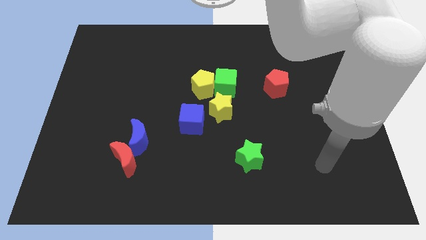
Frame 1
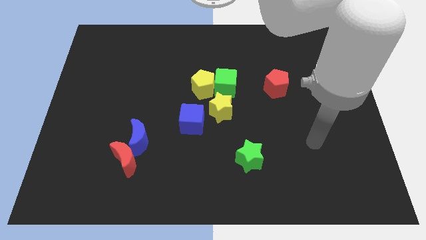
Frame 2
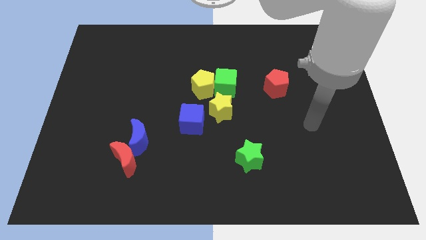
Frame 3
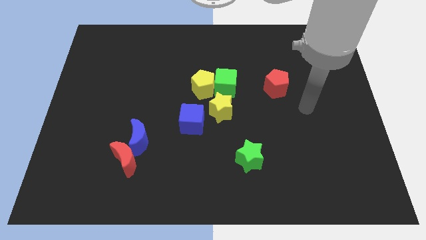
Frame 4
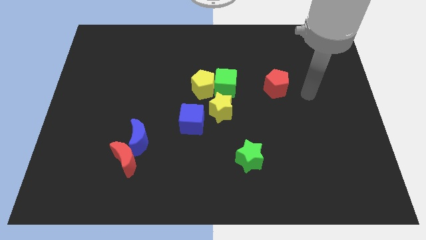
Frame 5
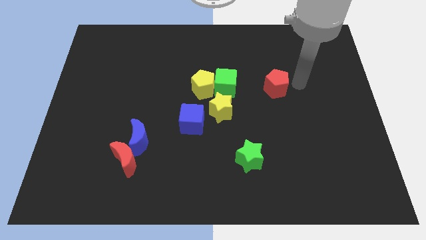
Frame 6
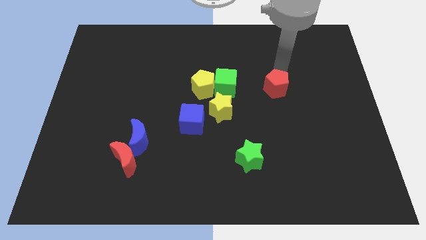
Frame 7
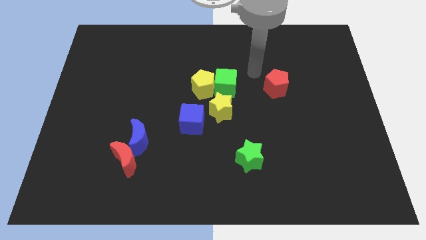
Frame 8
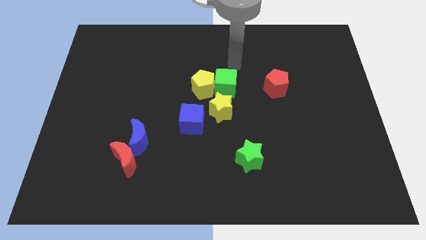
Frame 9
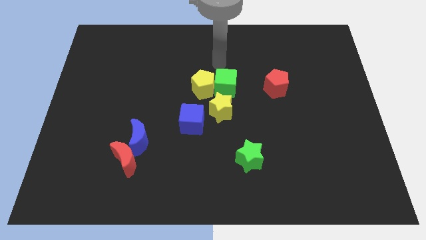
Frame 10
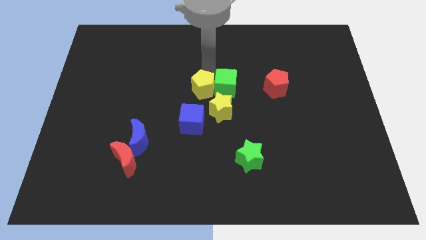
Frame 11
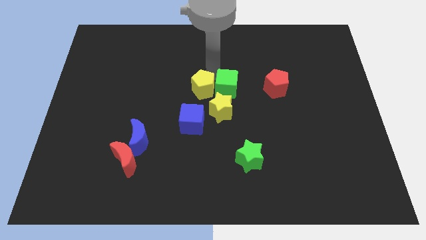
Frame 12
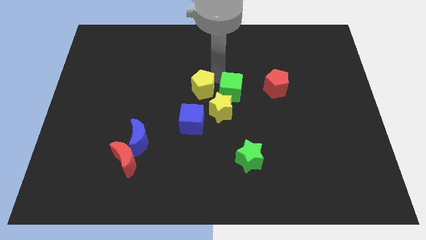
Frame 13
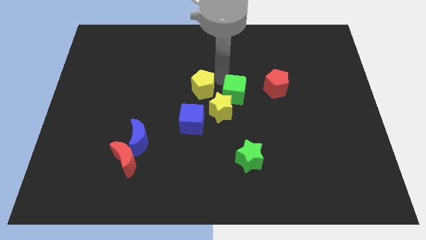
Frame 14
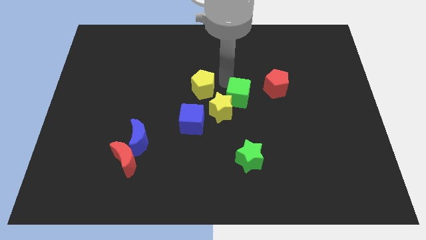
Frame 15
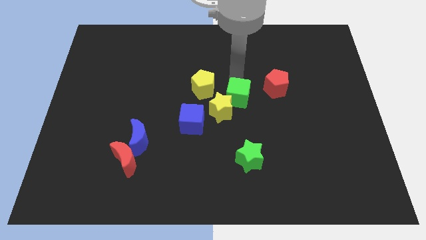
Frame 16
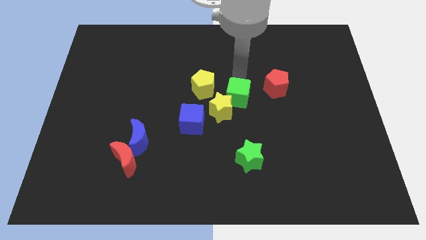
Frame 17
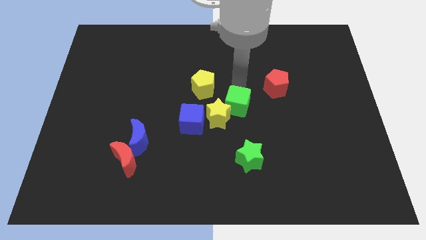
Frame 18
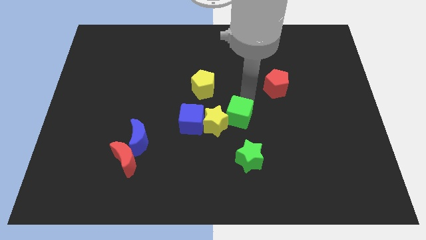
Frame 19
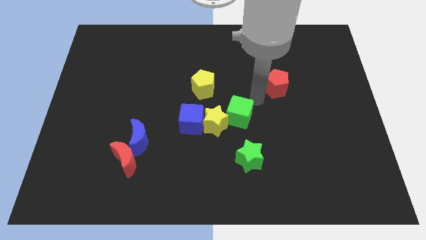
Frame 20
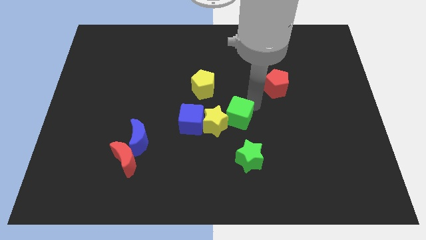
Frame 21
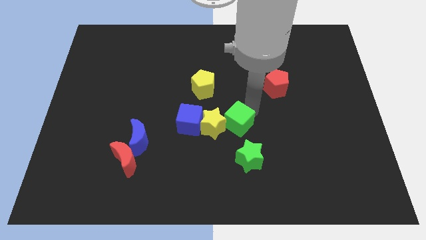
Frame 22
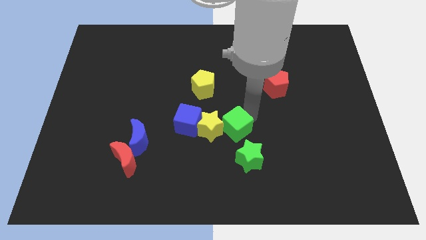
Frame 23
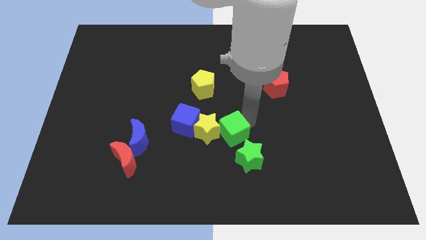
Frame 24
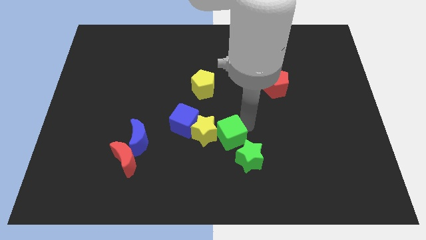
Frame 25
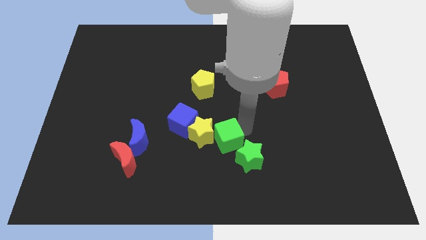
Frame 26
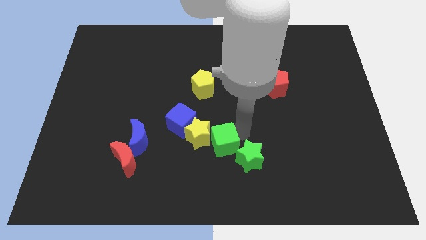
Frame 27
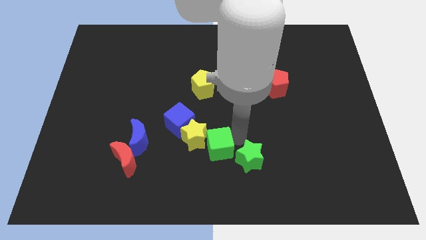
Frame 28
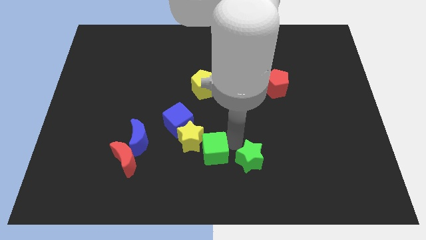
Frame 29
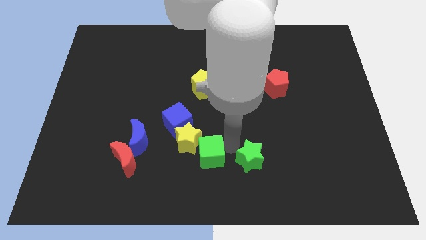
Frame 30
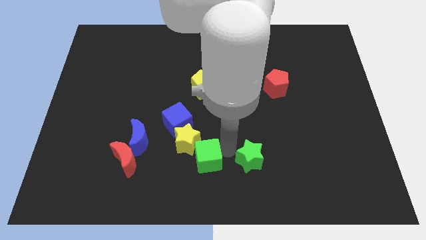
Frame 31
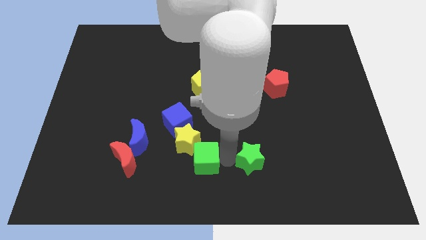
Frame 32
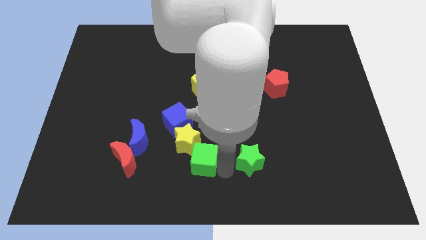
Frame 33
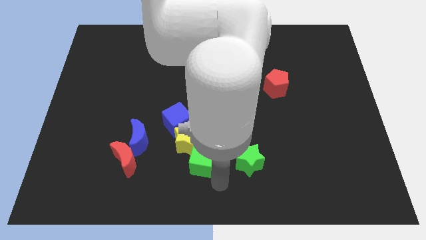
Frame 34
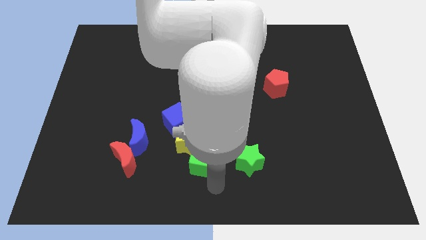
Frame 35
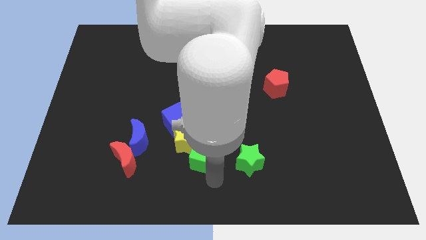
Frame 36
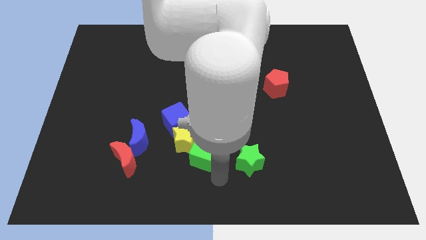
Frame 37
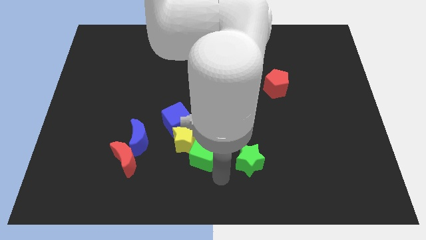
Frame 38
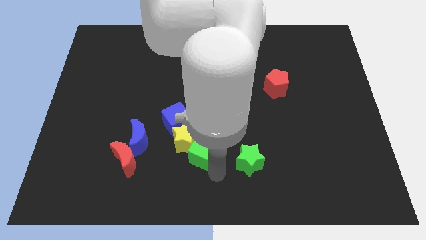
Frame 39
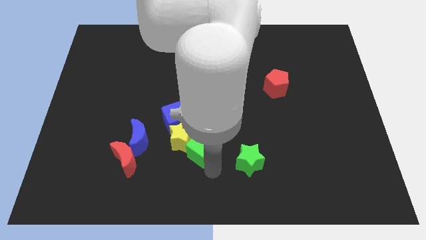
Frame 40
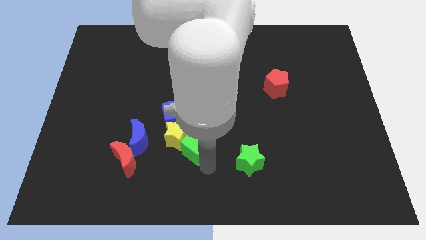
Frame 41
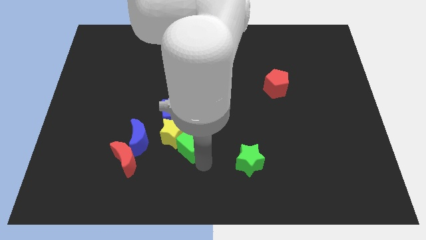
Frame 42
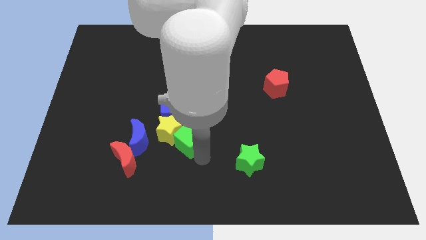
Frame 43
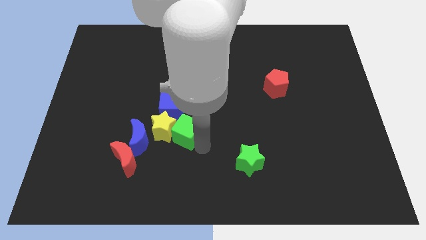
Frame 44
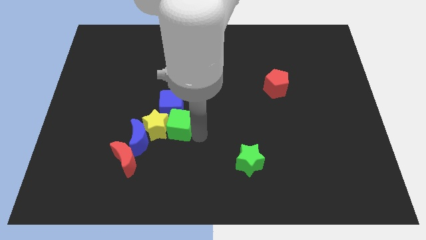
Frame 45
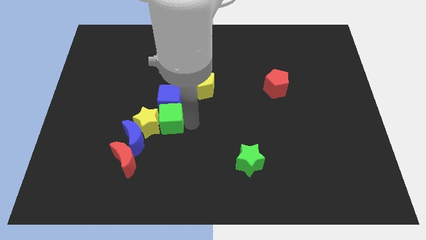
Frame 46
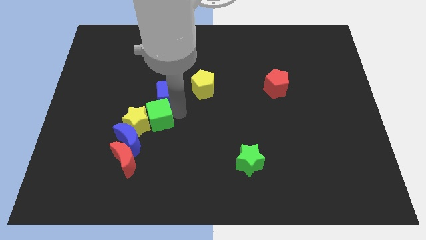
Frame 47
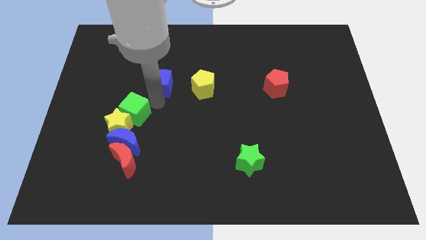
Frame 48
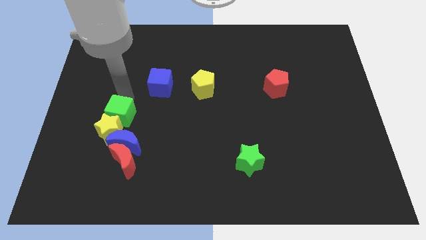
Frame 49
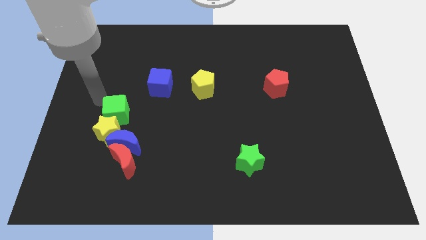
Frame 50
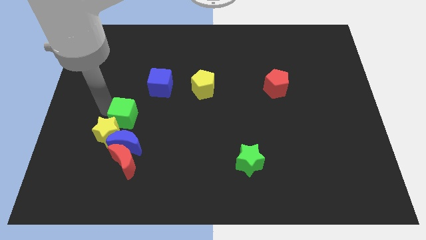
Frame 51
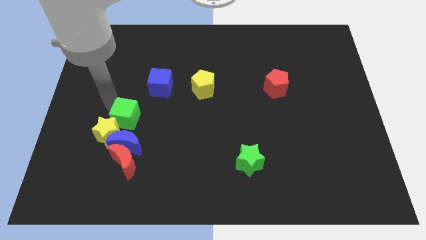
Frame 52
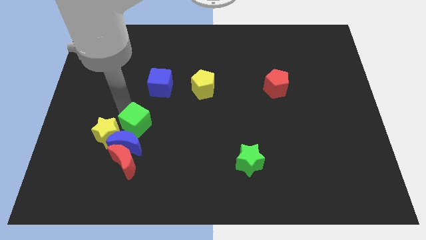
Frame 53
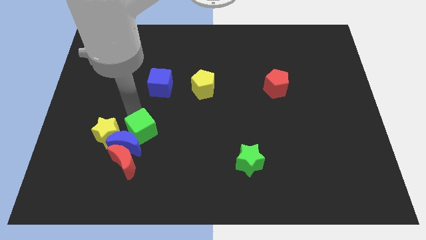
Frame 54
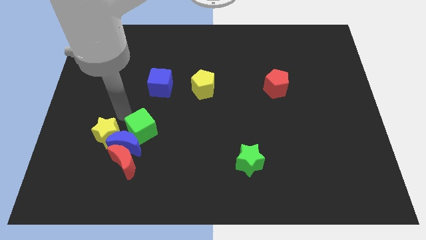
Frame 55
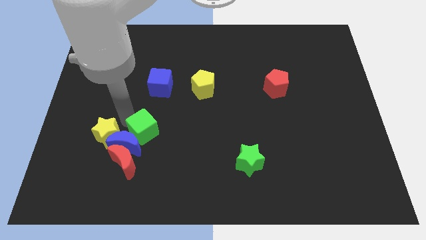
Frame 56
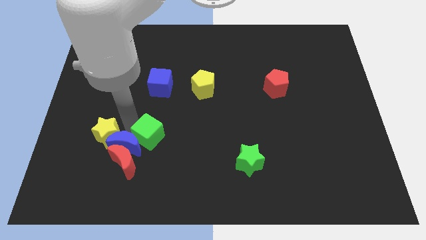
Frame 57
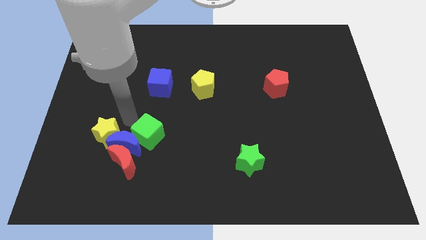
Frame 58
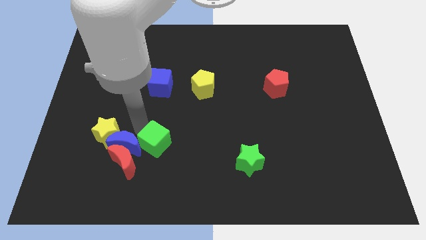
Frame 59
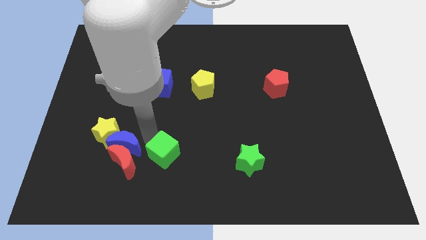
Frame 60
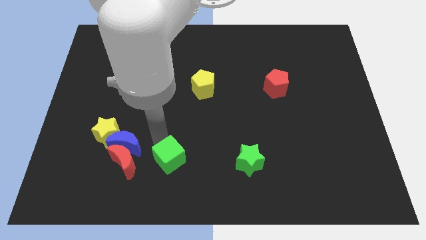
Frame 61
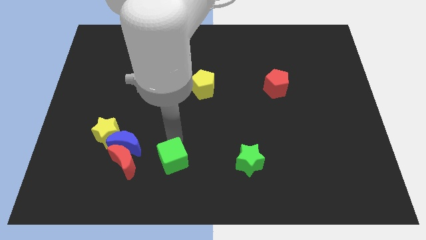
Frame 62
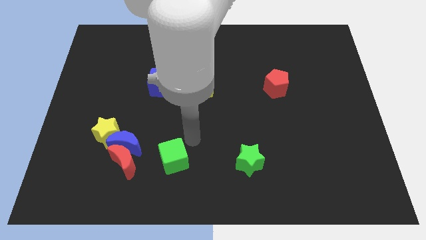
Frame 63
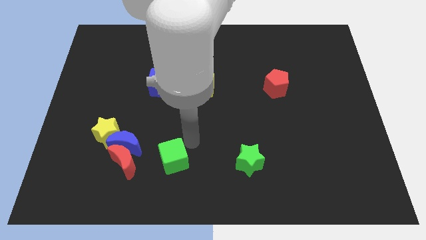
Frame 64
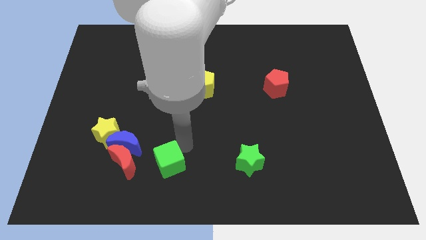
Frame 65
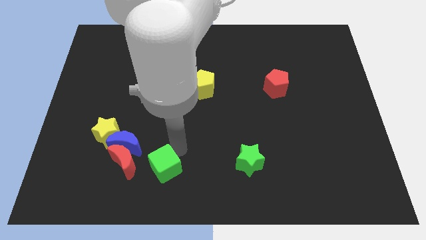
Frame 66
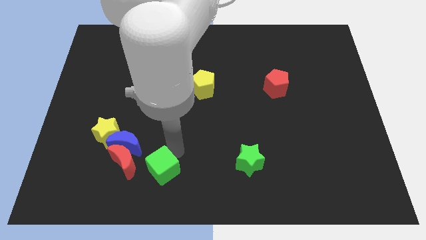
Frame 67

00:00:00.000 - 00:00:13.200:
push the green cube diagonally down and to the right of the red moon

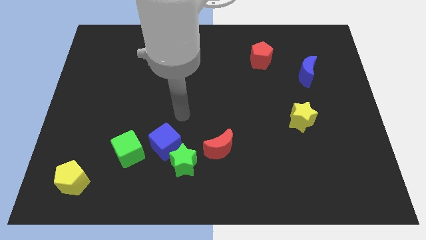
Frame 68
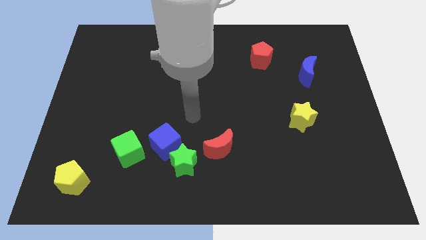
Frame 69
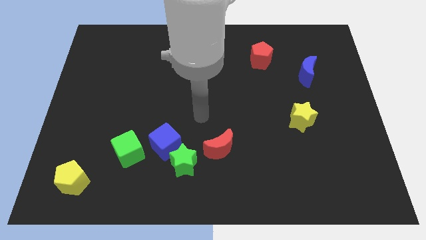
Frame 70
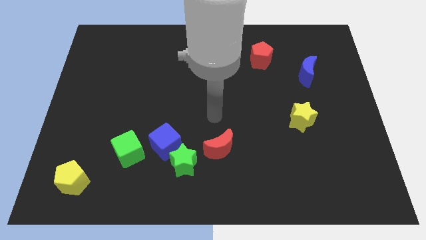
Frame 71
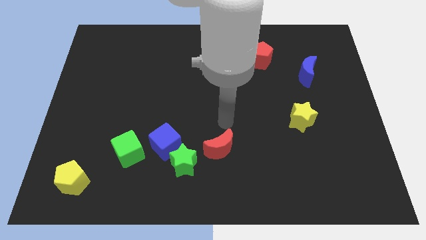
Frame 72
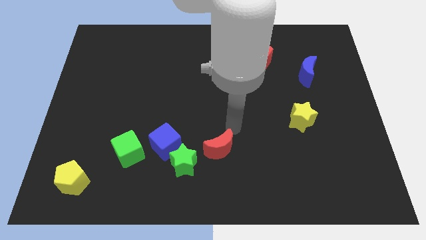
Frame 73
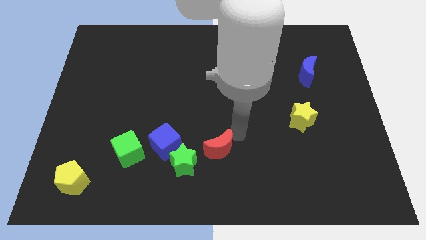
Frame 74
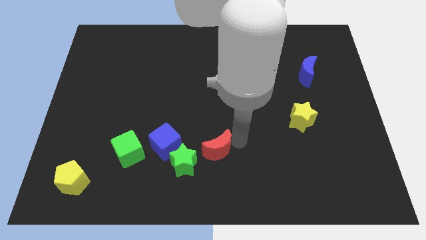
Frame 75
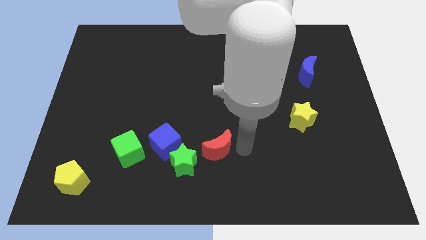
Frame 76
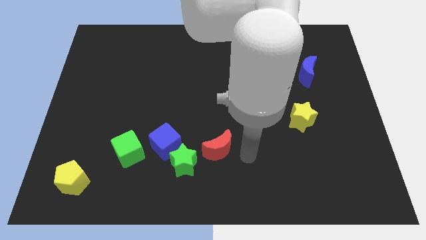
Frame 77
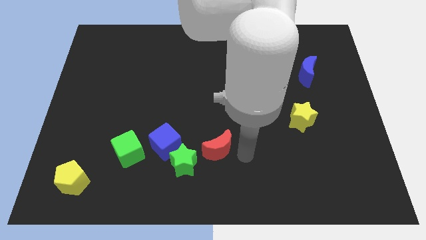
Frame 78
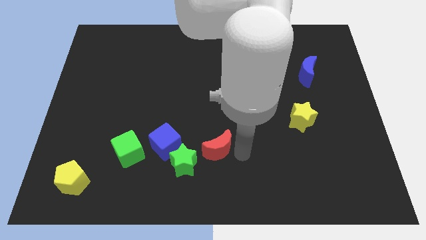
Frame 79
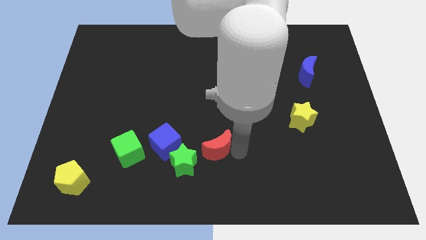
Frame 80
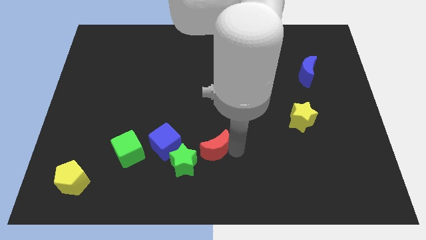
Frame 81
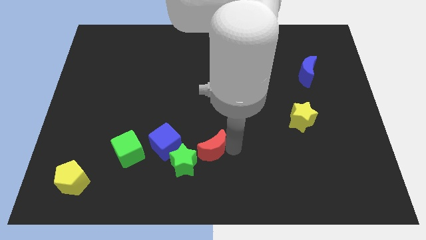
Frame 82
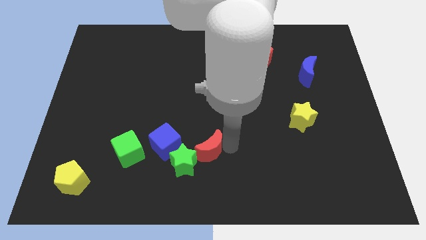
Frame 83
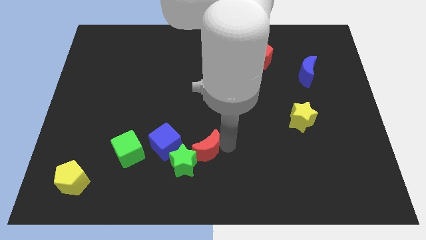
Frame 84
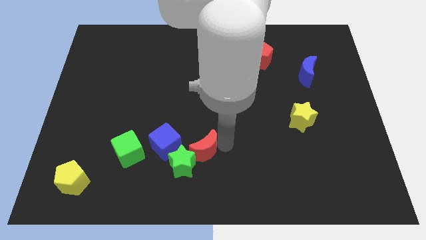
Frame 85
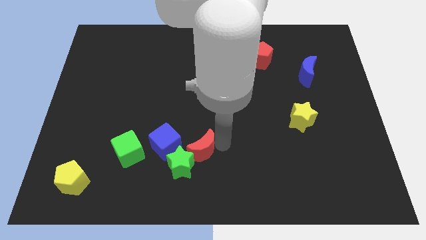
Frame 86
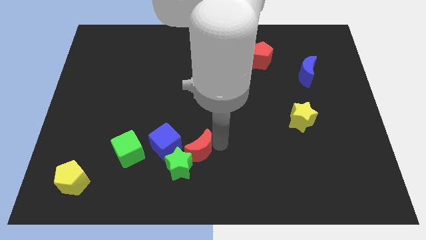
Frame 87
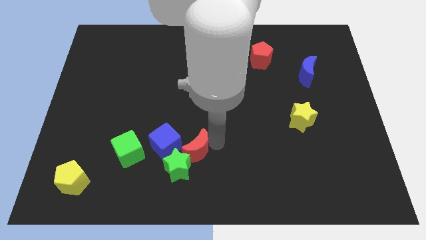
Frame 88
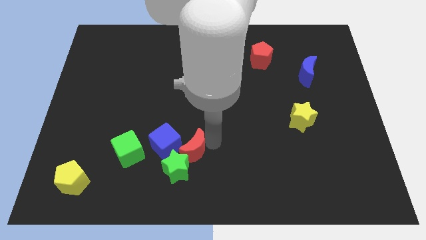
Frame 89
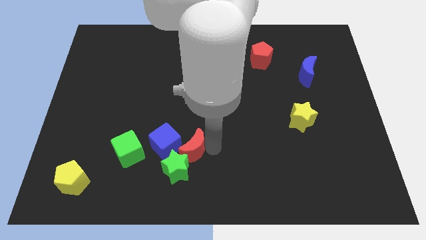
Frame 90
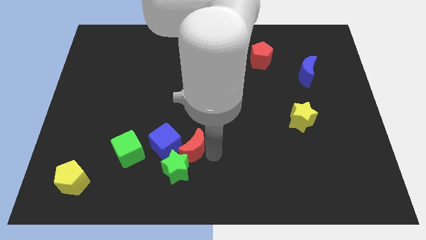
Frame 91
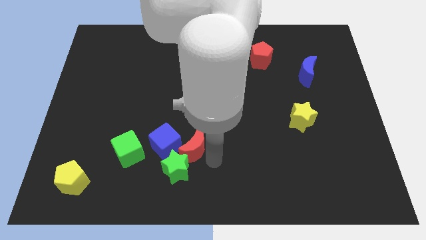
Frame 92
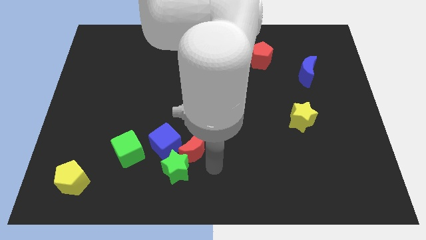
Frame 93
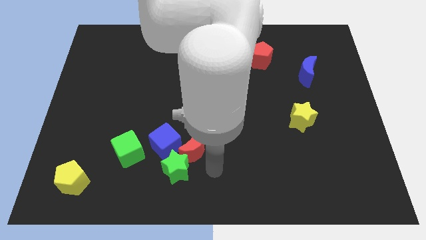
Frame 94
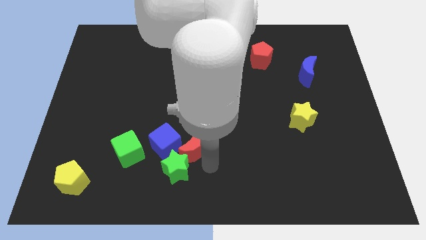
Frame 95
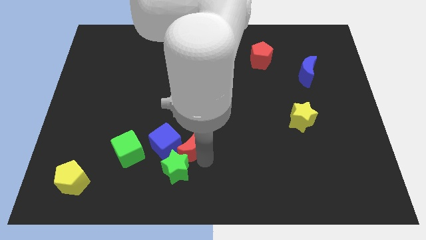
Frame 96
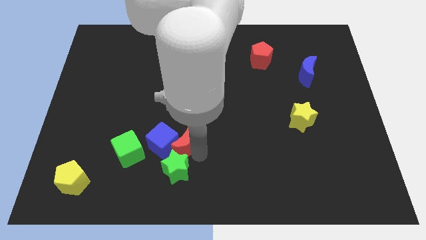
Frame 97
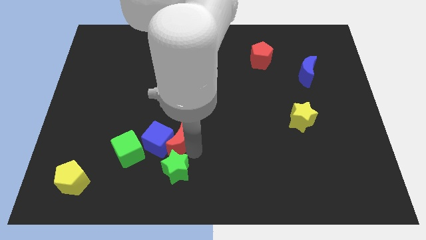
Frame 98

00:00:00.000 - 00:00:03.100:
slide the red moon diagonally up and to the left of the green star
